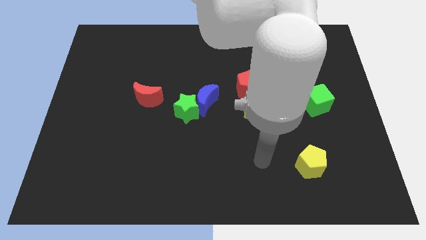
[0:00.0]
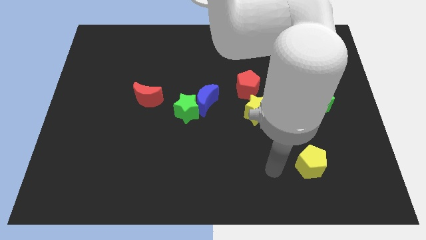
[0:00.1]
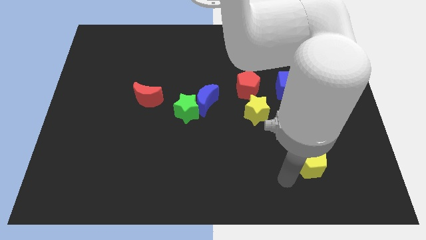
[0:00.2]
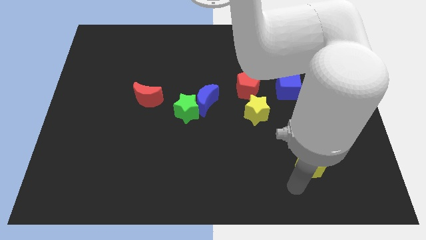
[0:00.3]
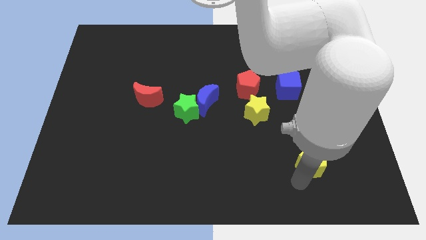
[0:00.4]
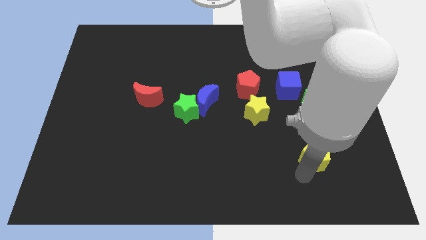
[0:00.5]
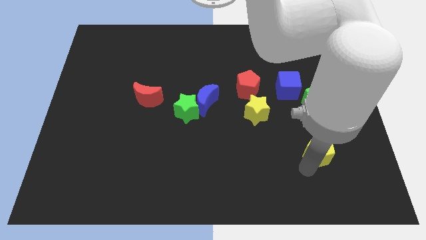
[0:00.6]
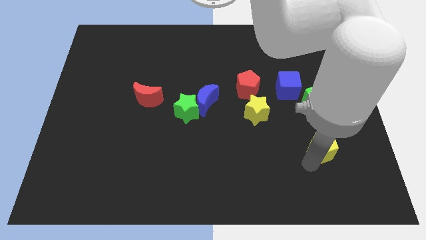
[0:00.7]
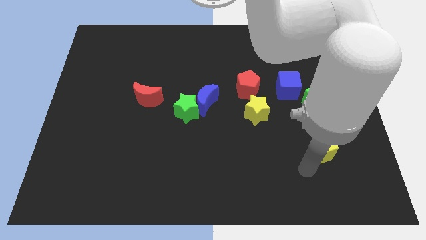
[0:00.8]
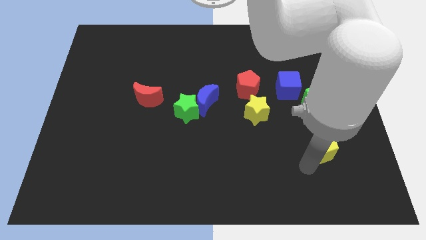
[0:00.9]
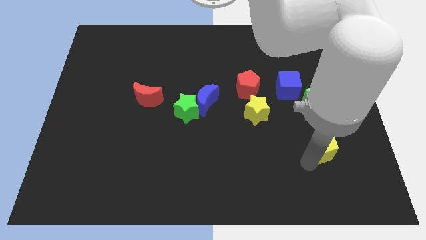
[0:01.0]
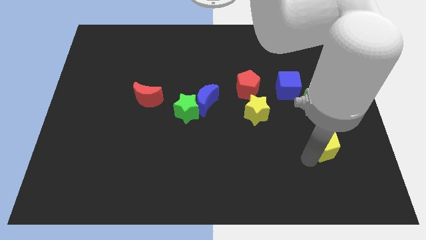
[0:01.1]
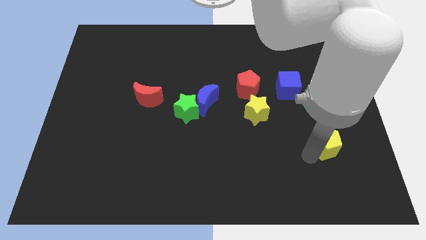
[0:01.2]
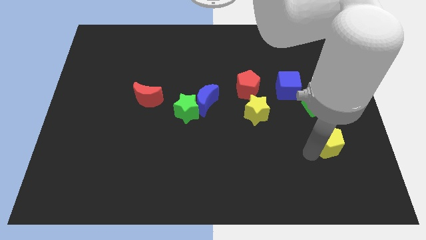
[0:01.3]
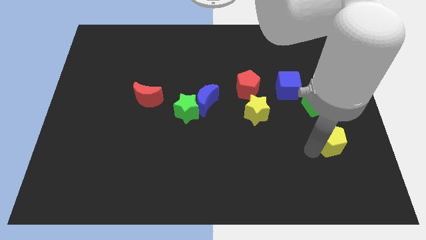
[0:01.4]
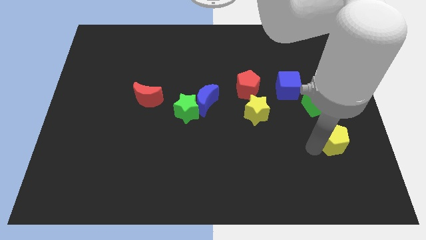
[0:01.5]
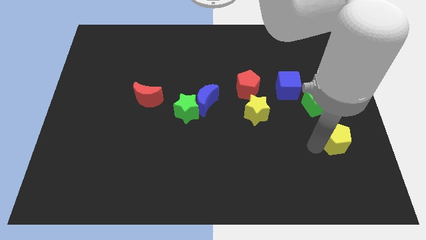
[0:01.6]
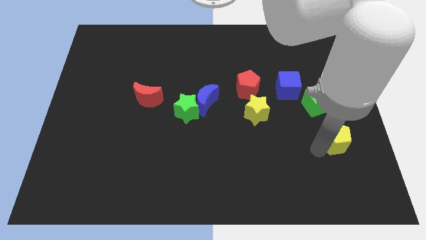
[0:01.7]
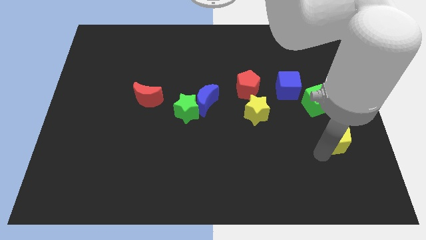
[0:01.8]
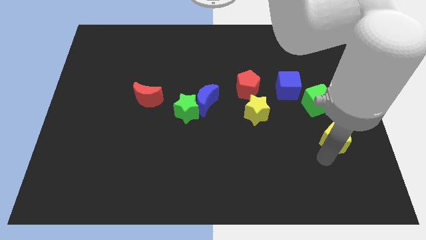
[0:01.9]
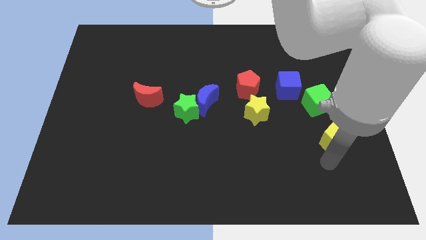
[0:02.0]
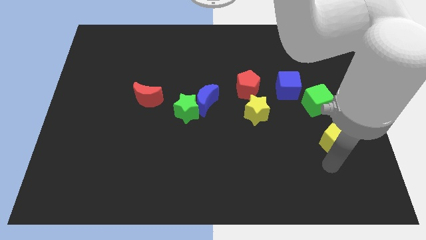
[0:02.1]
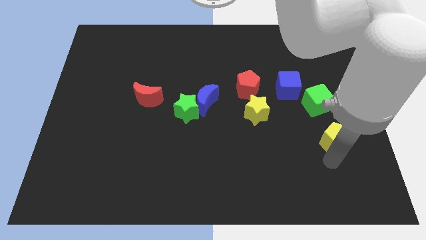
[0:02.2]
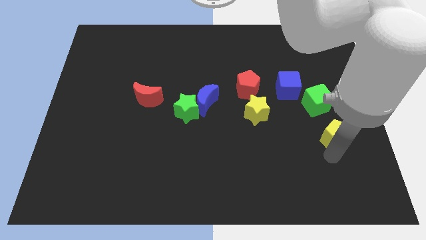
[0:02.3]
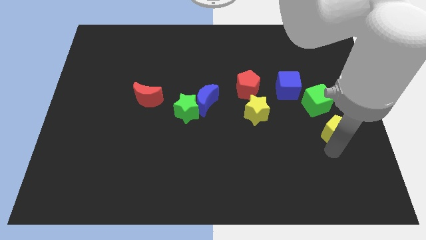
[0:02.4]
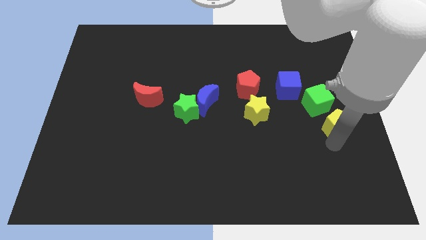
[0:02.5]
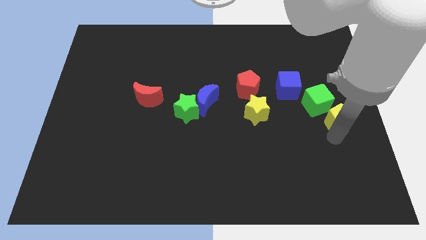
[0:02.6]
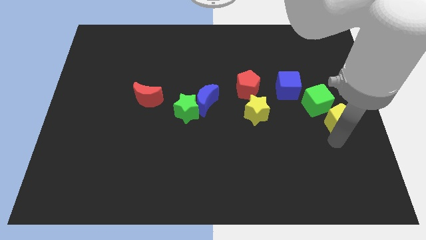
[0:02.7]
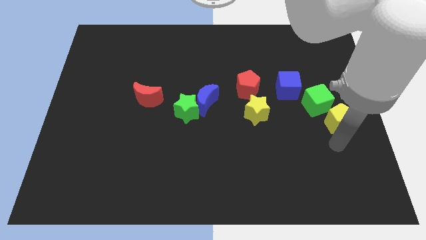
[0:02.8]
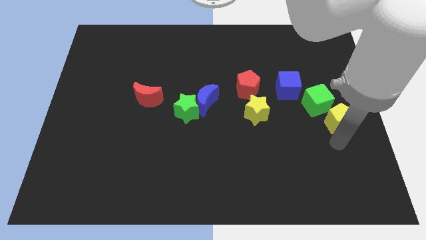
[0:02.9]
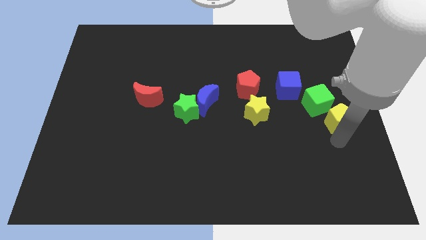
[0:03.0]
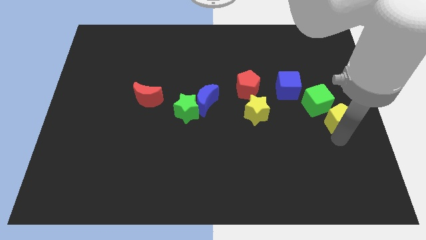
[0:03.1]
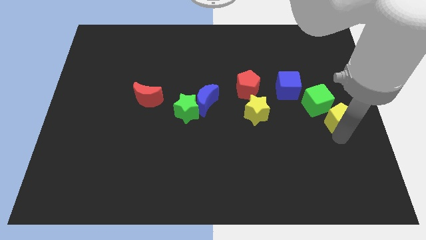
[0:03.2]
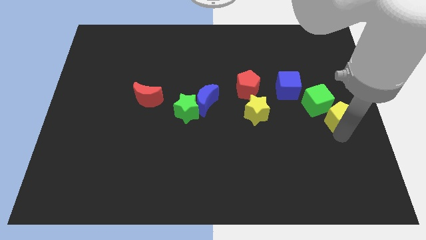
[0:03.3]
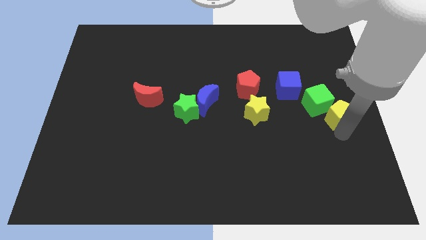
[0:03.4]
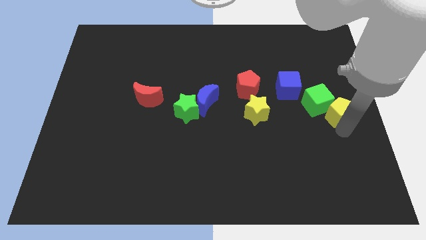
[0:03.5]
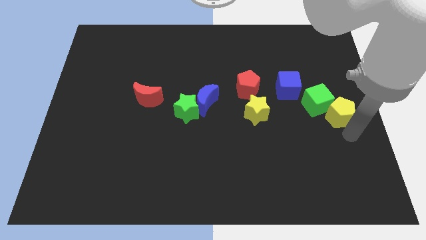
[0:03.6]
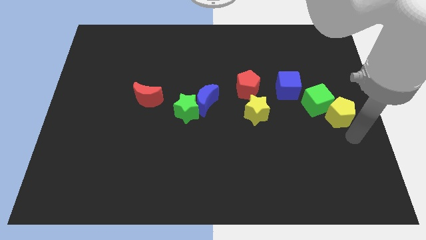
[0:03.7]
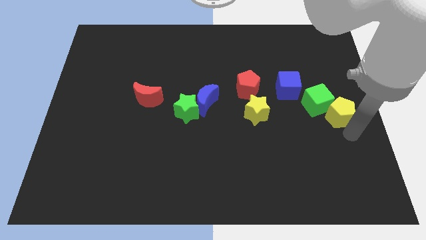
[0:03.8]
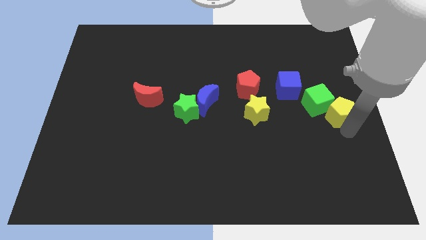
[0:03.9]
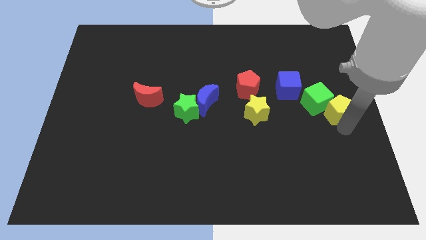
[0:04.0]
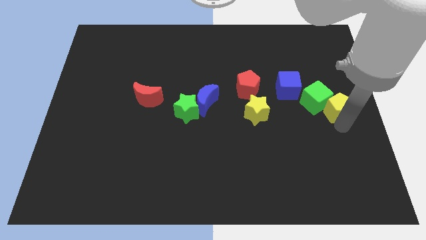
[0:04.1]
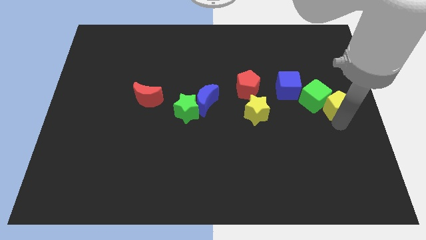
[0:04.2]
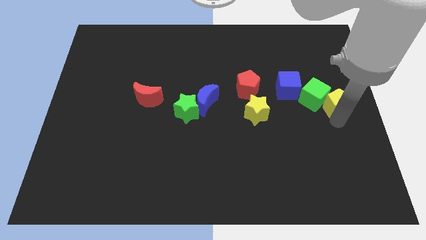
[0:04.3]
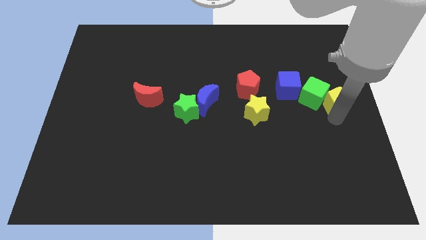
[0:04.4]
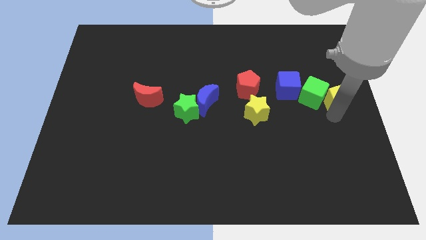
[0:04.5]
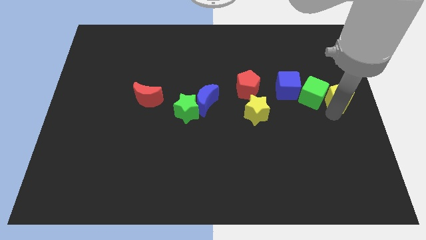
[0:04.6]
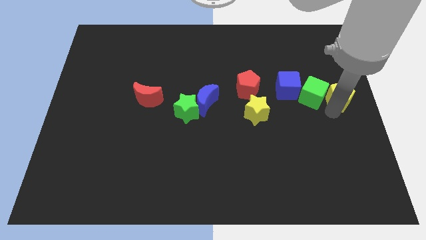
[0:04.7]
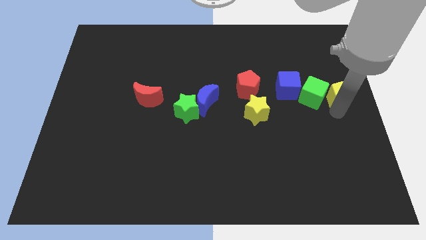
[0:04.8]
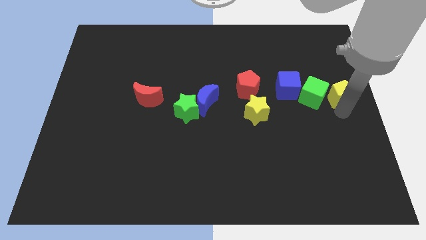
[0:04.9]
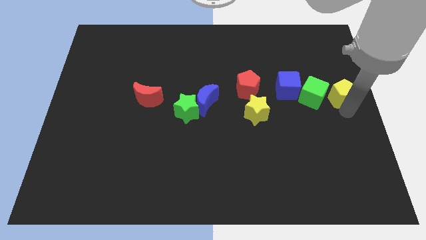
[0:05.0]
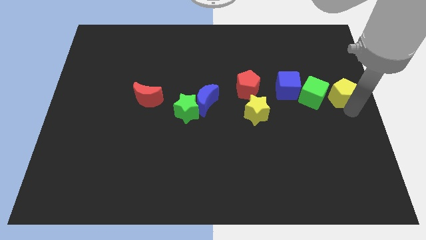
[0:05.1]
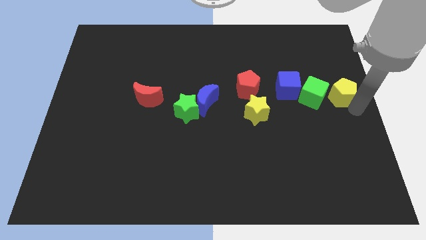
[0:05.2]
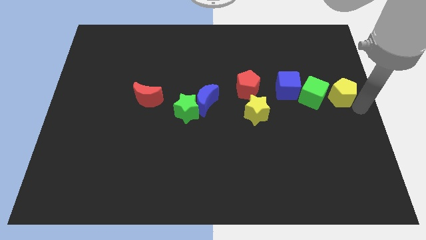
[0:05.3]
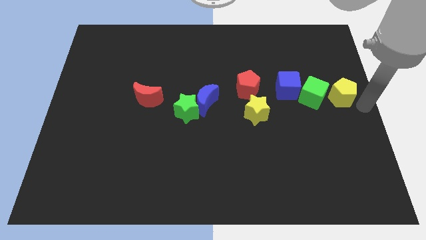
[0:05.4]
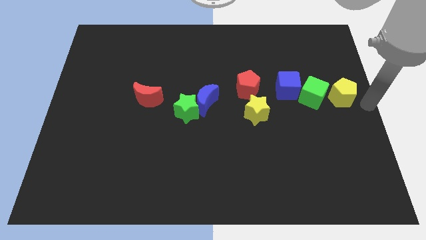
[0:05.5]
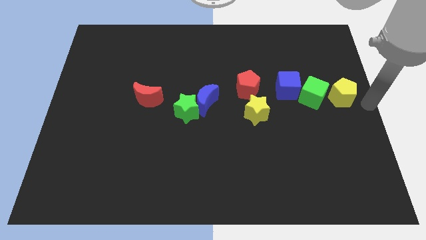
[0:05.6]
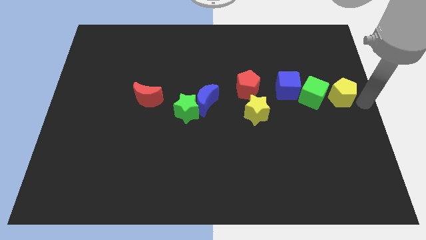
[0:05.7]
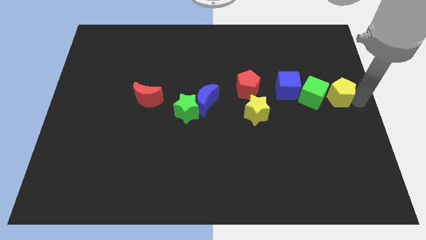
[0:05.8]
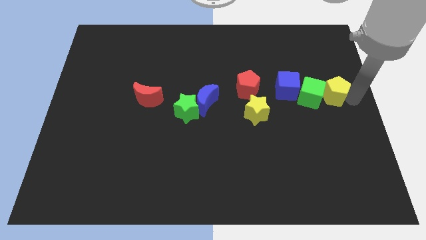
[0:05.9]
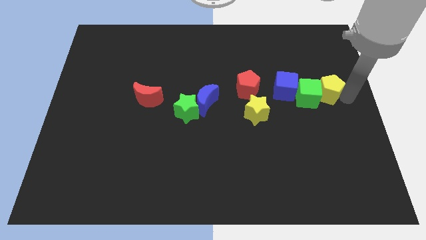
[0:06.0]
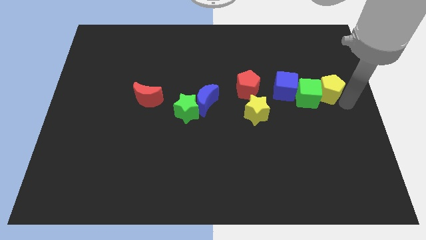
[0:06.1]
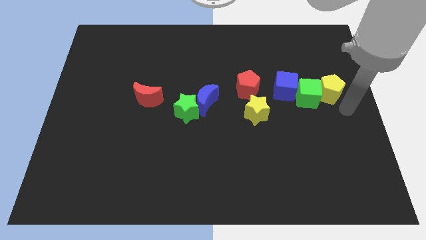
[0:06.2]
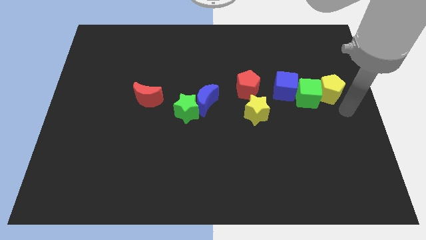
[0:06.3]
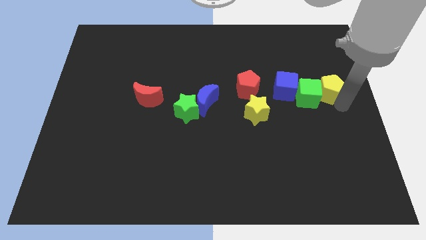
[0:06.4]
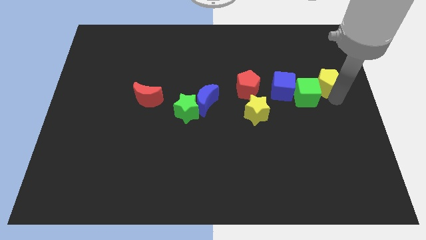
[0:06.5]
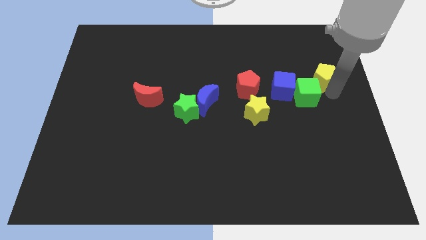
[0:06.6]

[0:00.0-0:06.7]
move the yellow pentagon upwards

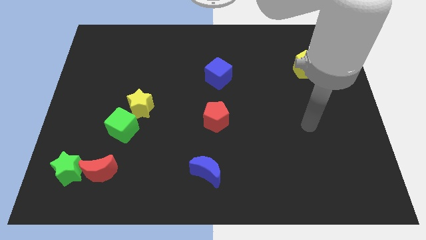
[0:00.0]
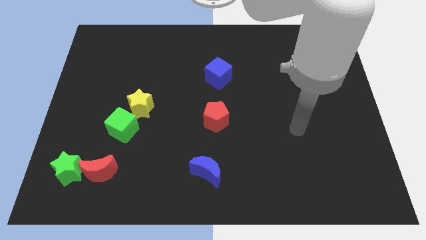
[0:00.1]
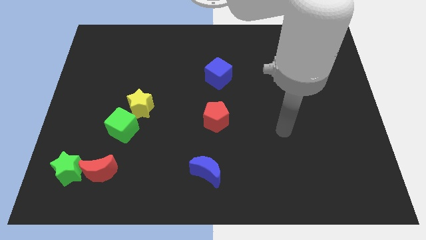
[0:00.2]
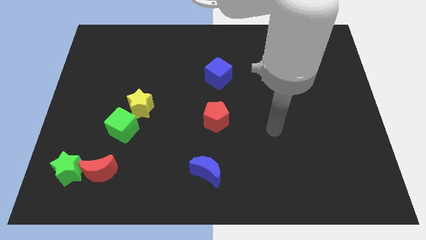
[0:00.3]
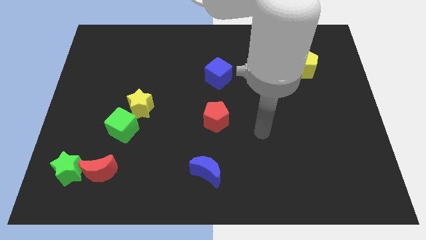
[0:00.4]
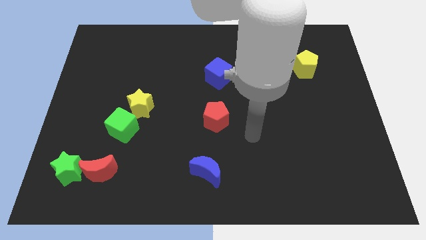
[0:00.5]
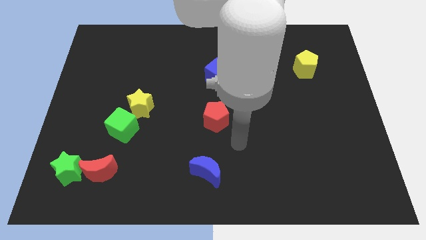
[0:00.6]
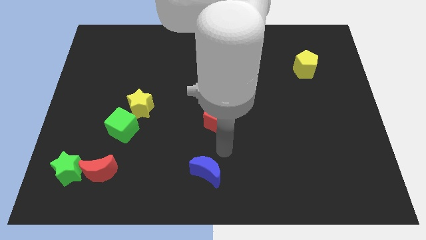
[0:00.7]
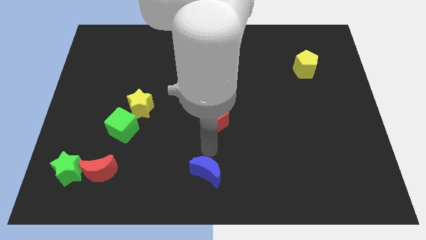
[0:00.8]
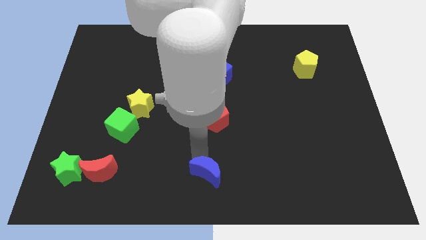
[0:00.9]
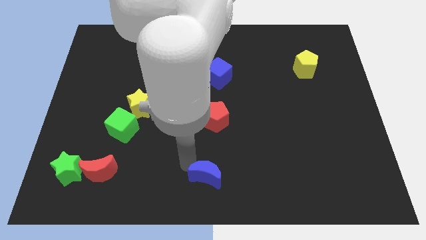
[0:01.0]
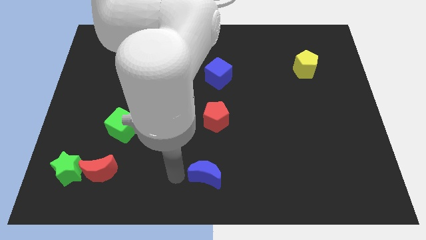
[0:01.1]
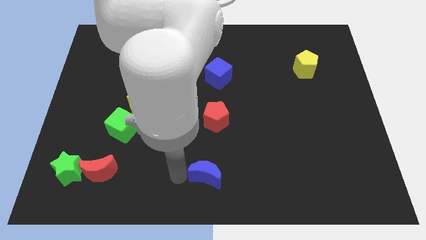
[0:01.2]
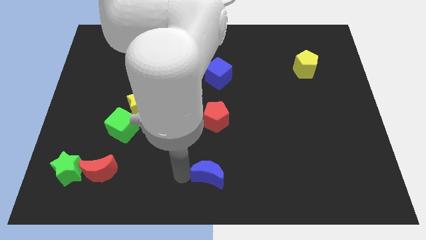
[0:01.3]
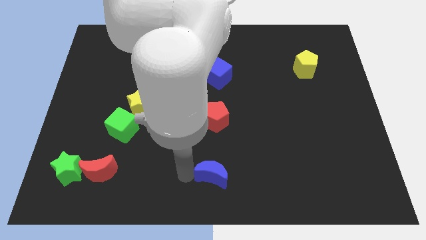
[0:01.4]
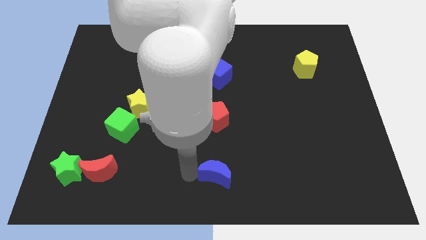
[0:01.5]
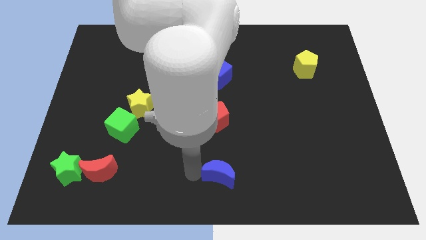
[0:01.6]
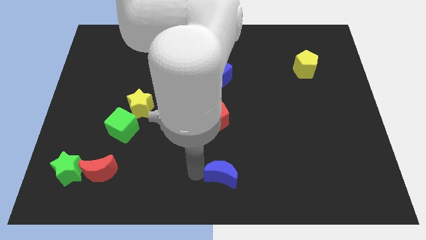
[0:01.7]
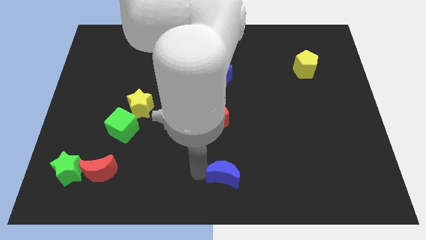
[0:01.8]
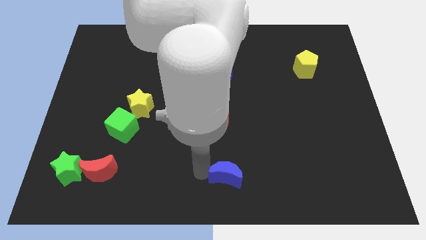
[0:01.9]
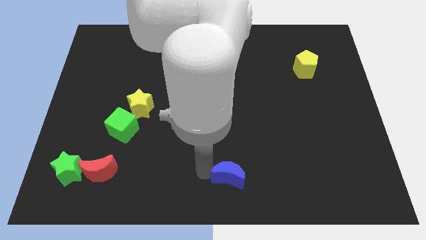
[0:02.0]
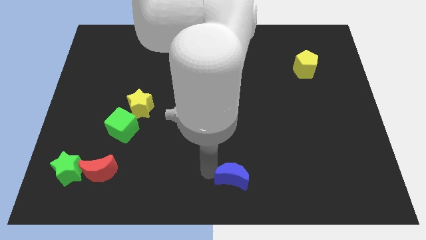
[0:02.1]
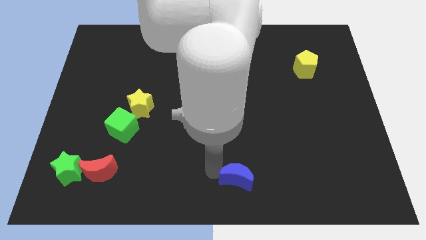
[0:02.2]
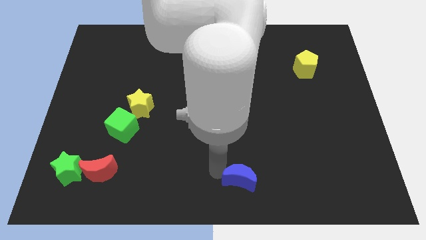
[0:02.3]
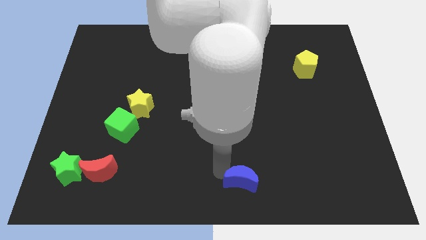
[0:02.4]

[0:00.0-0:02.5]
slightly slide the blue moon right
